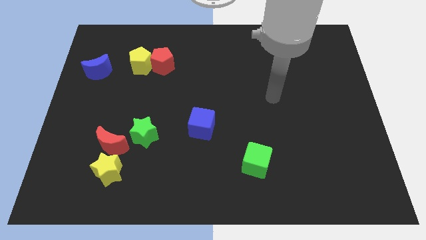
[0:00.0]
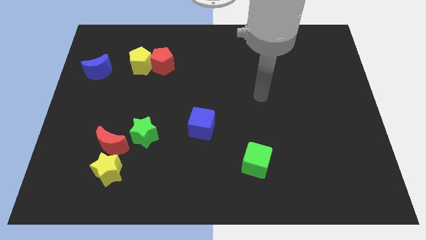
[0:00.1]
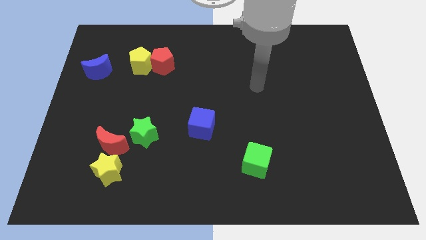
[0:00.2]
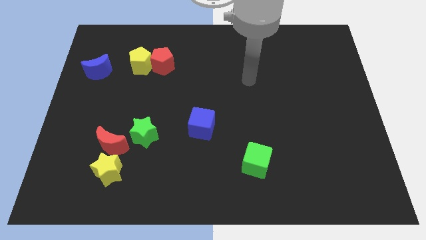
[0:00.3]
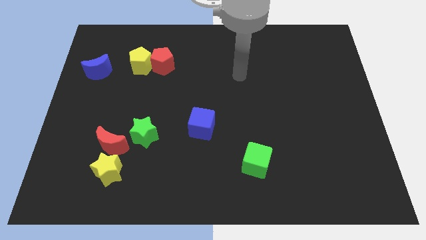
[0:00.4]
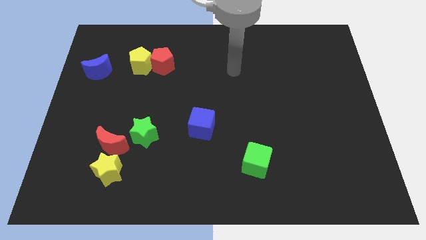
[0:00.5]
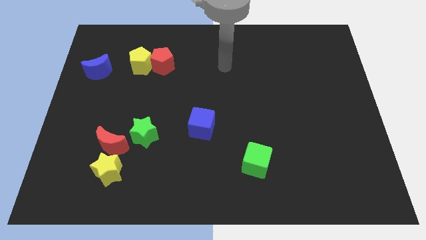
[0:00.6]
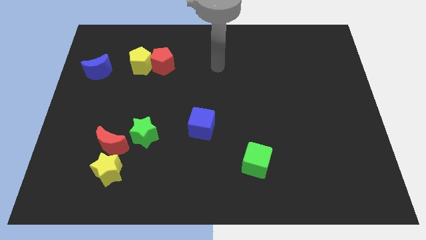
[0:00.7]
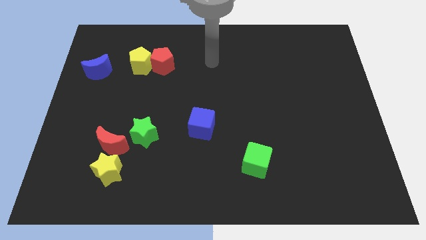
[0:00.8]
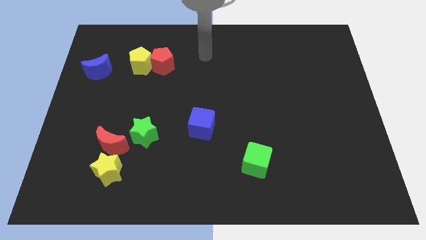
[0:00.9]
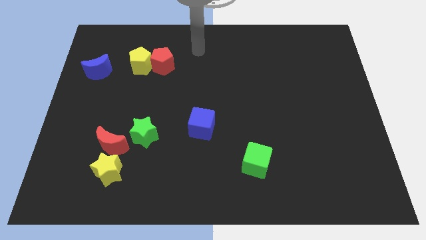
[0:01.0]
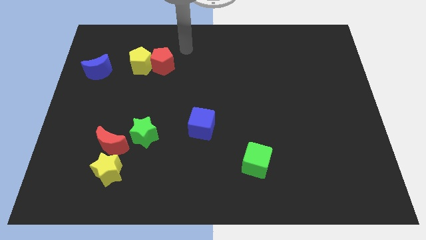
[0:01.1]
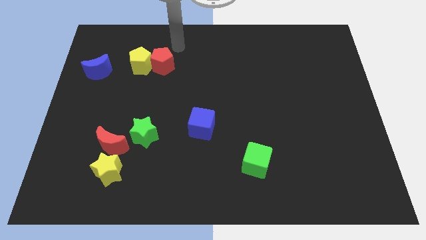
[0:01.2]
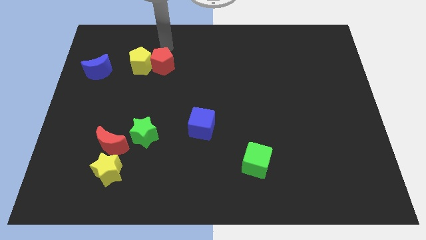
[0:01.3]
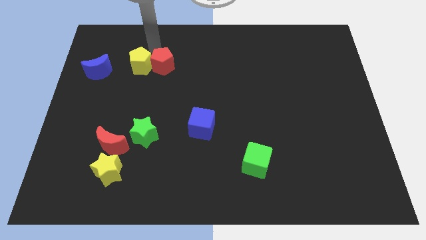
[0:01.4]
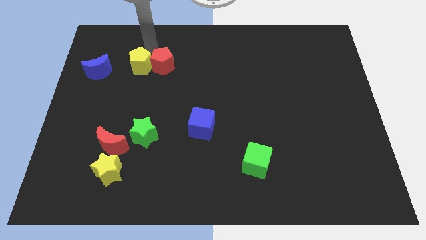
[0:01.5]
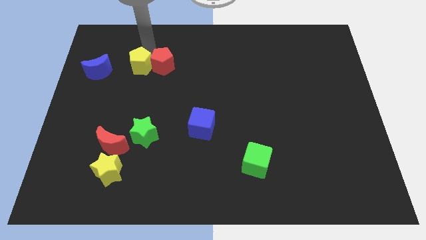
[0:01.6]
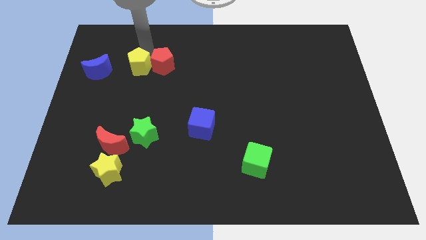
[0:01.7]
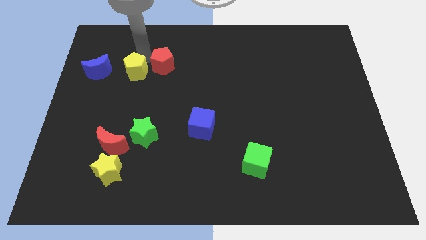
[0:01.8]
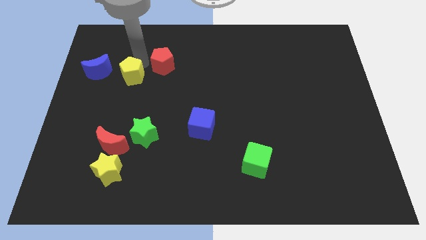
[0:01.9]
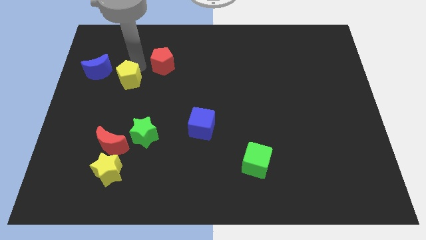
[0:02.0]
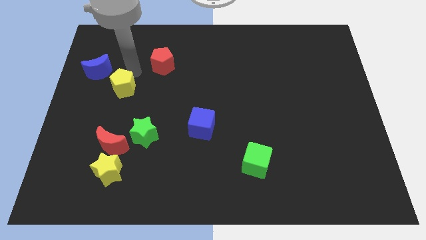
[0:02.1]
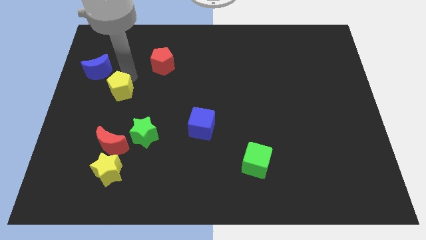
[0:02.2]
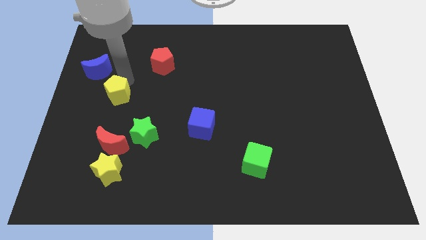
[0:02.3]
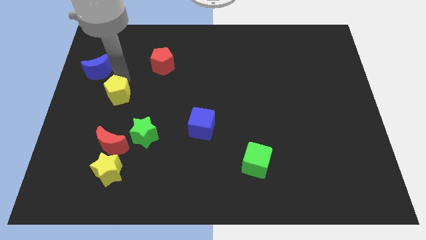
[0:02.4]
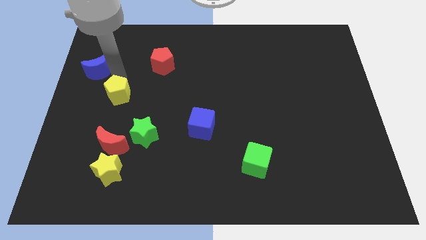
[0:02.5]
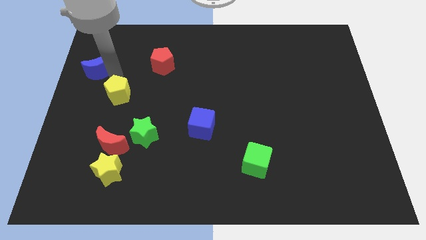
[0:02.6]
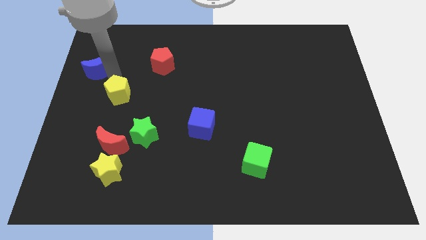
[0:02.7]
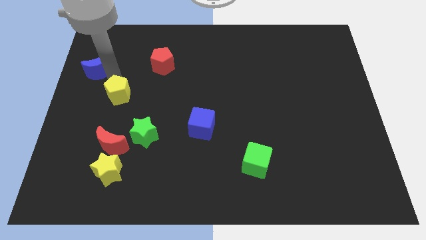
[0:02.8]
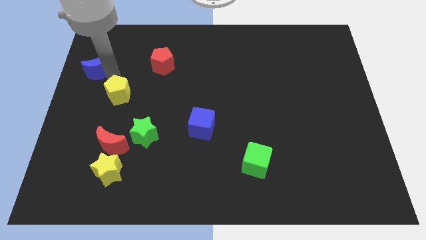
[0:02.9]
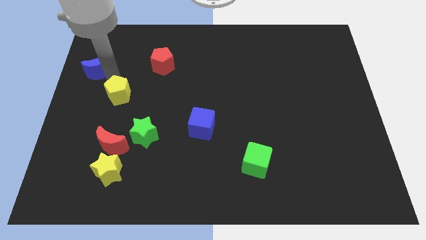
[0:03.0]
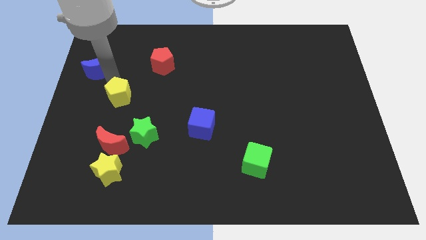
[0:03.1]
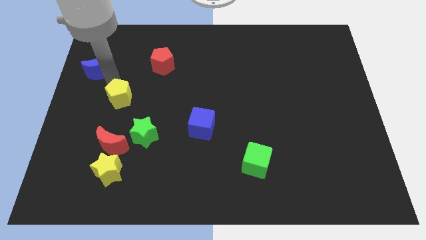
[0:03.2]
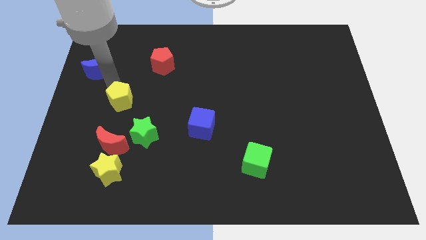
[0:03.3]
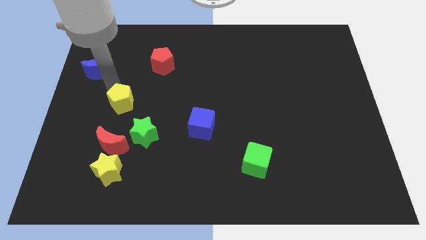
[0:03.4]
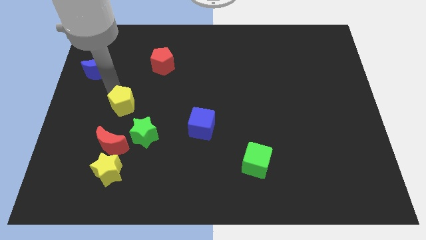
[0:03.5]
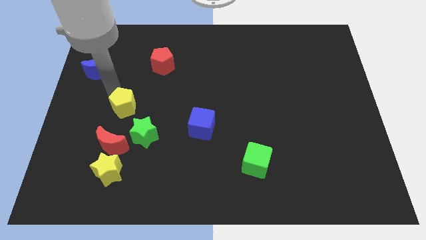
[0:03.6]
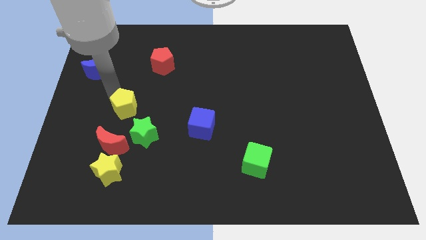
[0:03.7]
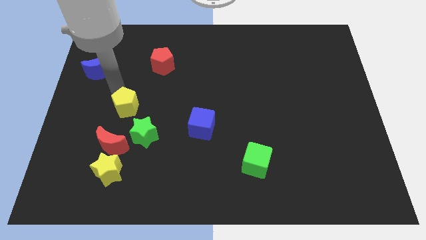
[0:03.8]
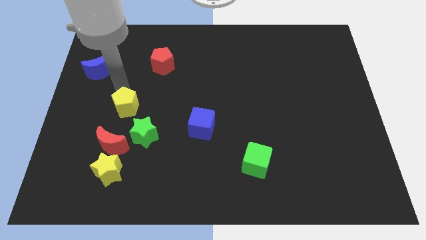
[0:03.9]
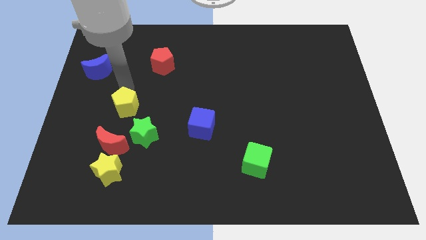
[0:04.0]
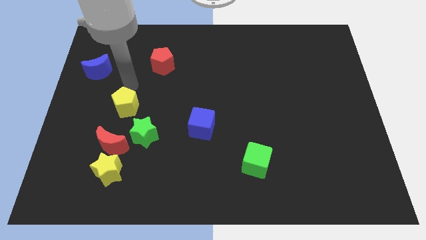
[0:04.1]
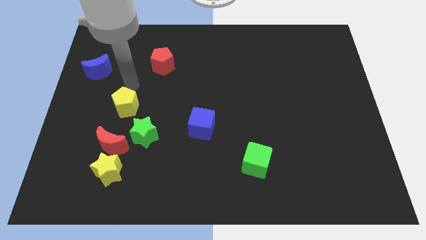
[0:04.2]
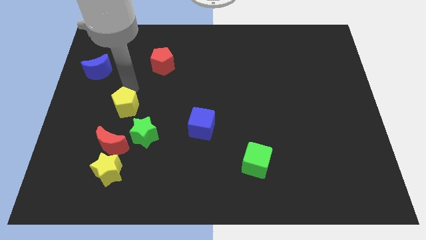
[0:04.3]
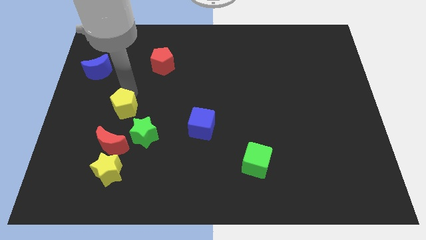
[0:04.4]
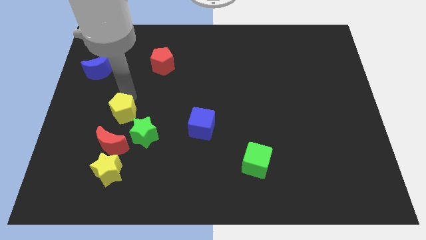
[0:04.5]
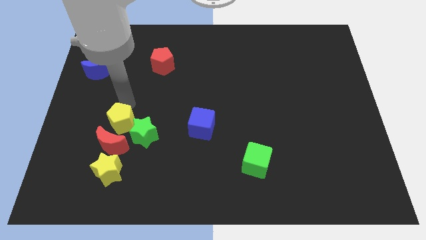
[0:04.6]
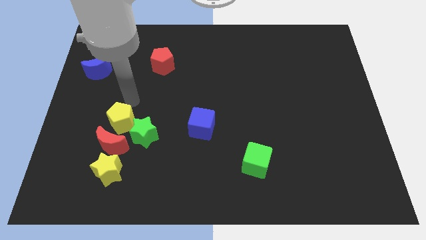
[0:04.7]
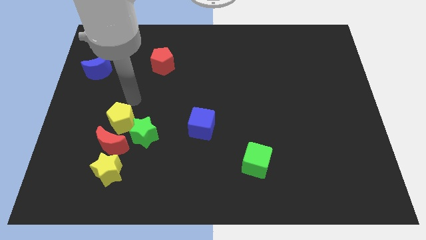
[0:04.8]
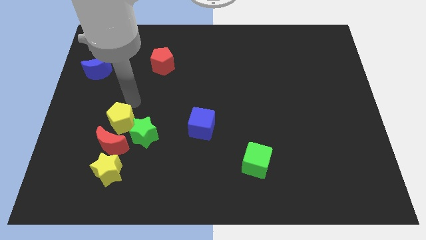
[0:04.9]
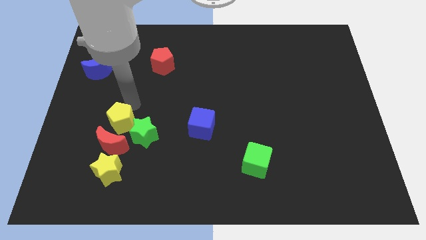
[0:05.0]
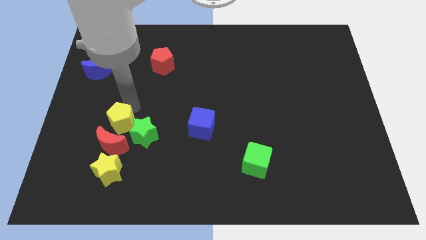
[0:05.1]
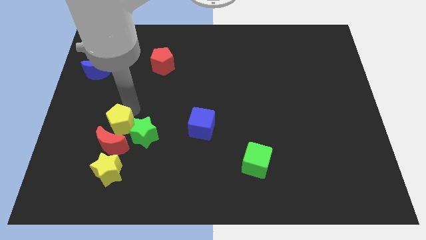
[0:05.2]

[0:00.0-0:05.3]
push the yellow pentagon to the red moon

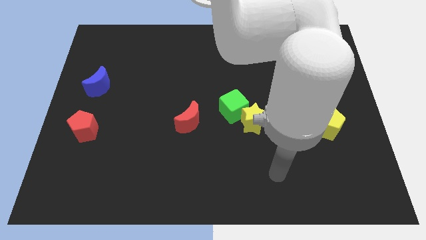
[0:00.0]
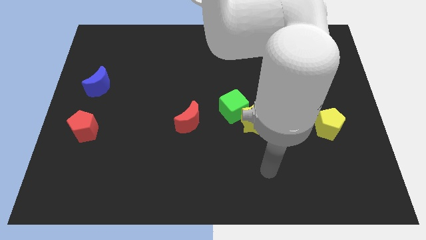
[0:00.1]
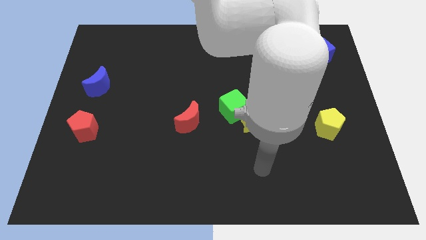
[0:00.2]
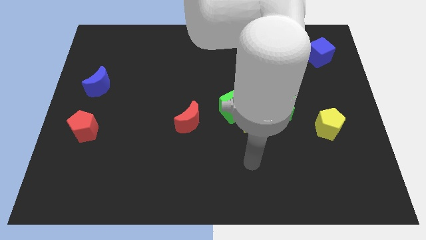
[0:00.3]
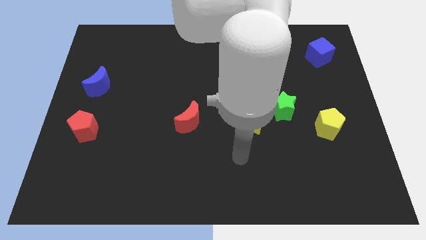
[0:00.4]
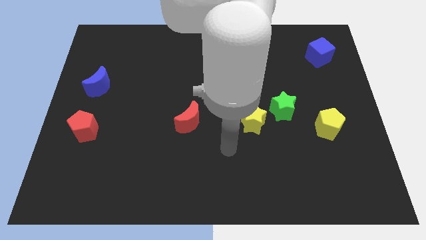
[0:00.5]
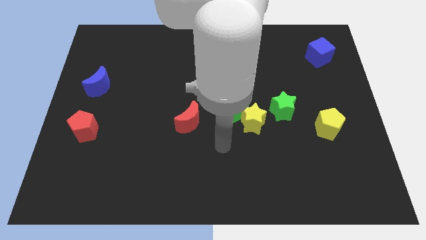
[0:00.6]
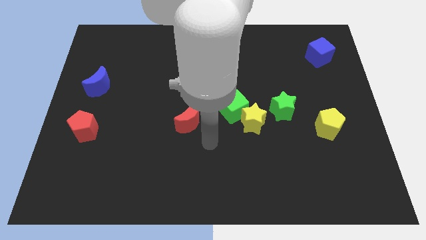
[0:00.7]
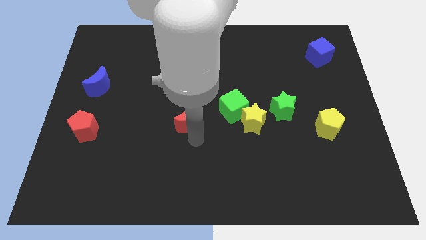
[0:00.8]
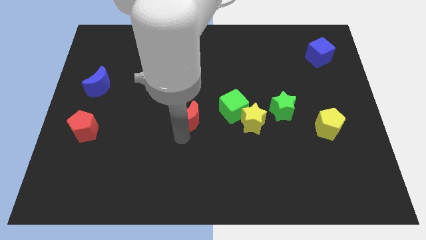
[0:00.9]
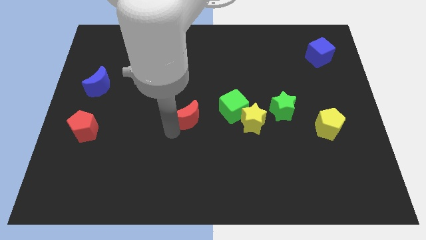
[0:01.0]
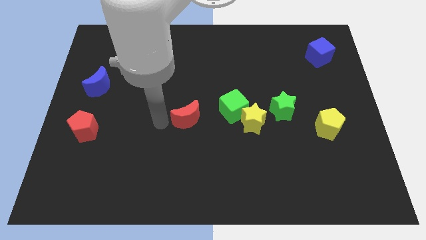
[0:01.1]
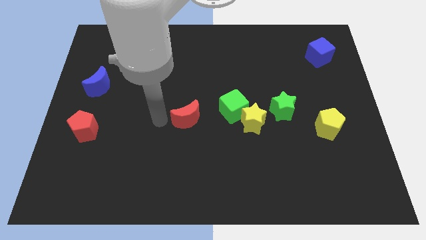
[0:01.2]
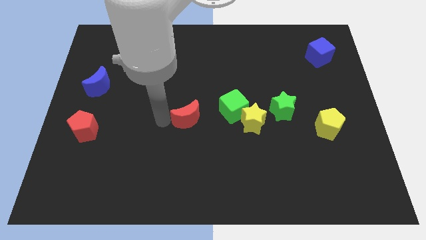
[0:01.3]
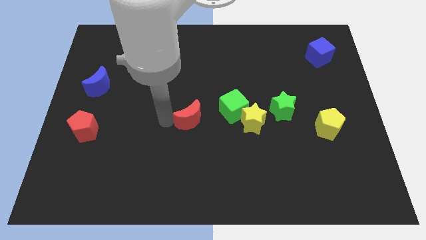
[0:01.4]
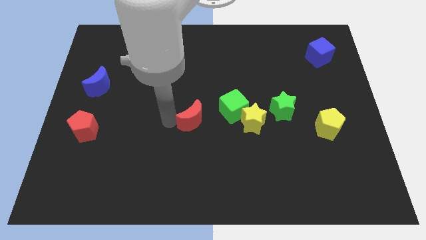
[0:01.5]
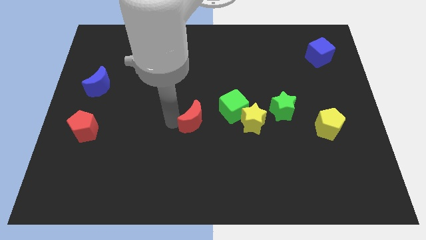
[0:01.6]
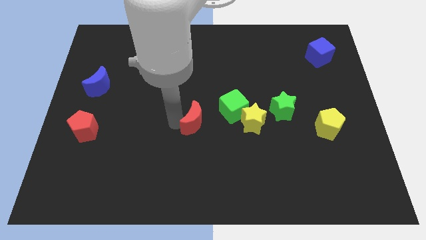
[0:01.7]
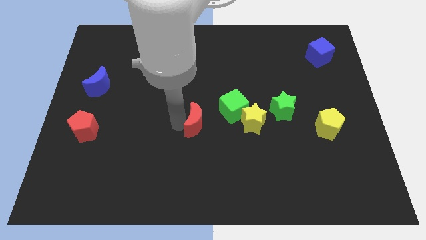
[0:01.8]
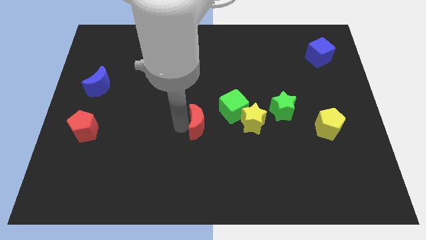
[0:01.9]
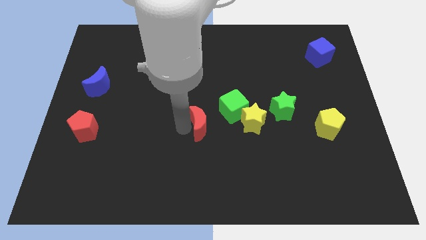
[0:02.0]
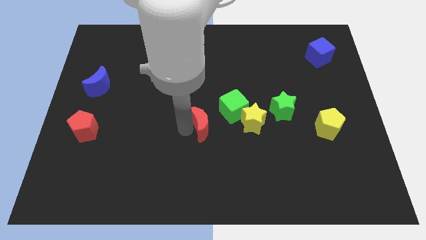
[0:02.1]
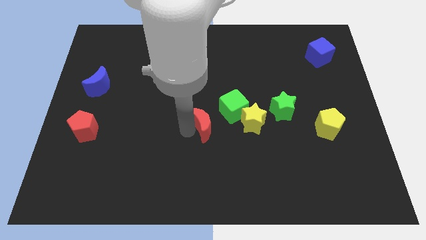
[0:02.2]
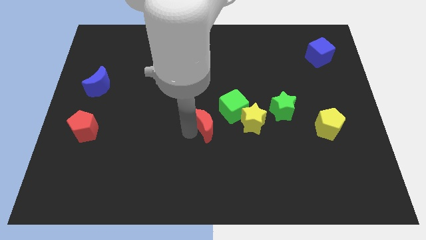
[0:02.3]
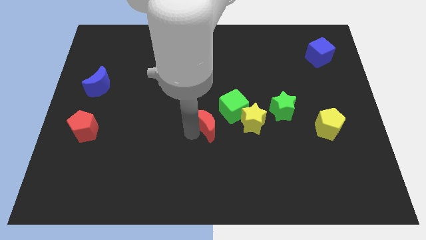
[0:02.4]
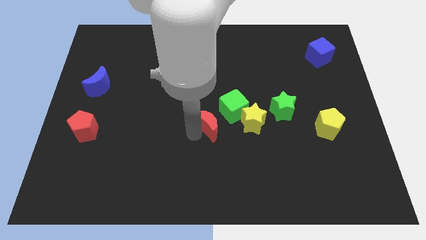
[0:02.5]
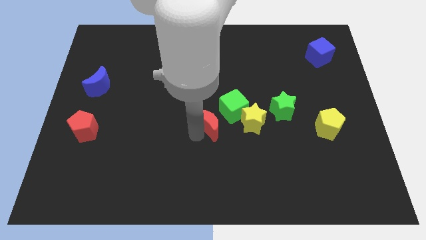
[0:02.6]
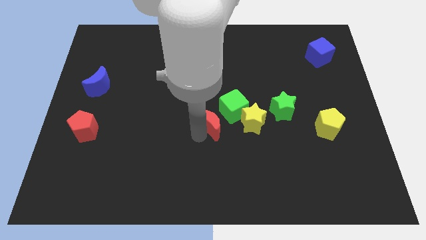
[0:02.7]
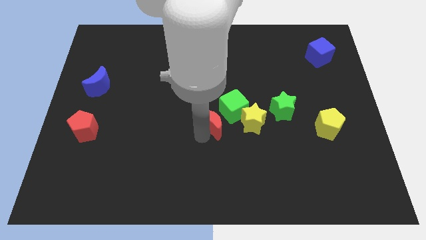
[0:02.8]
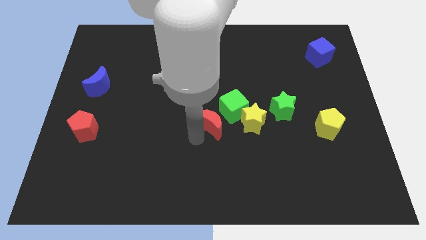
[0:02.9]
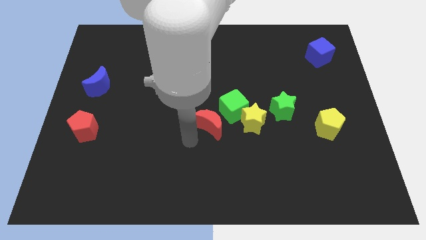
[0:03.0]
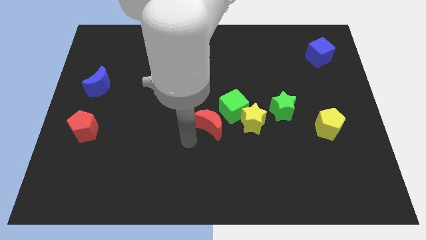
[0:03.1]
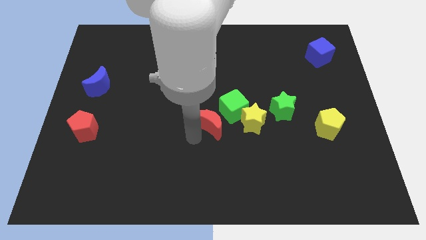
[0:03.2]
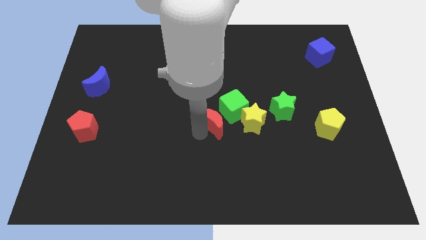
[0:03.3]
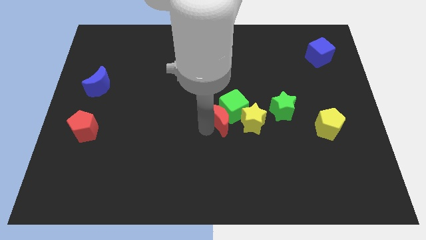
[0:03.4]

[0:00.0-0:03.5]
push the red moon next to the green cube
